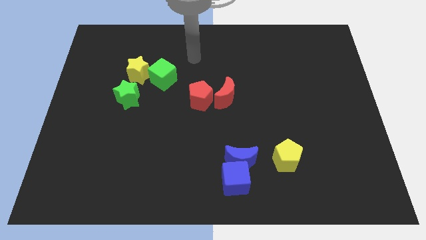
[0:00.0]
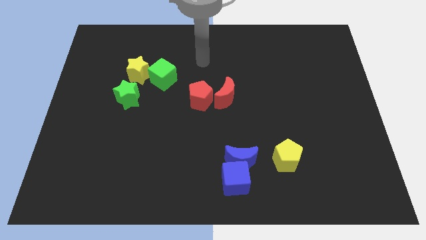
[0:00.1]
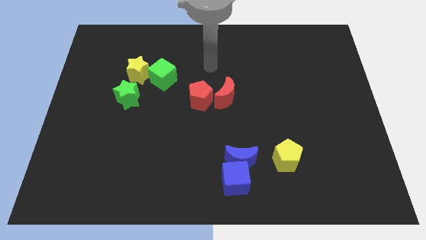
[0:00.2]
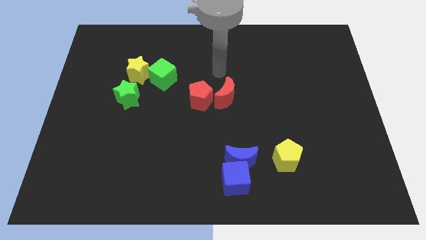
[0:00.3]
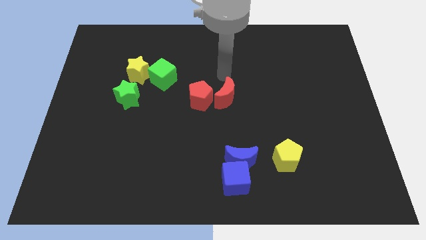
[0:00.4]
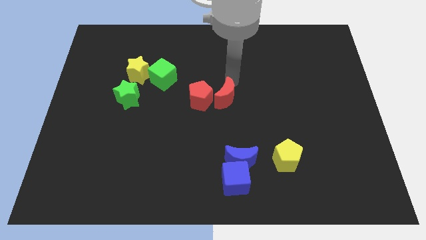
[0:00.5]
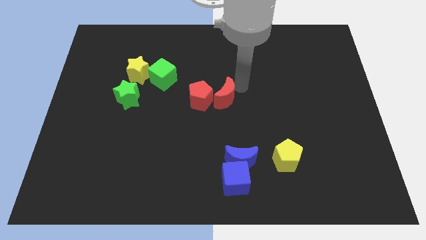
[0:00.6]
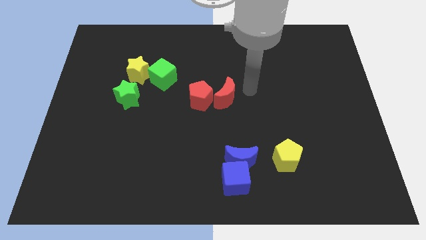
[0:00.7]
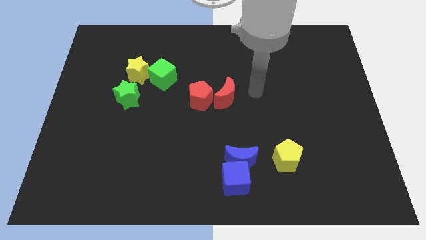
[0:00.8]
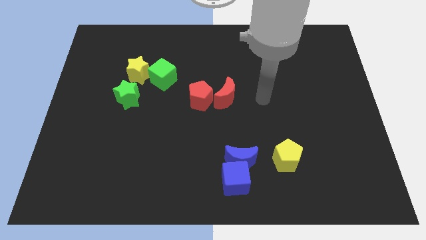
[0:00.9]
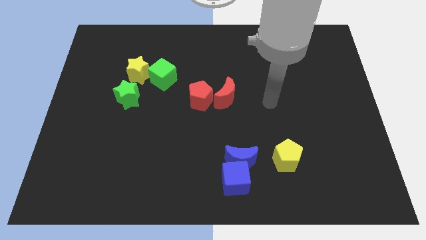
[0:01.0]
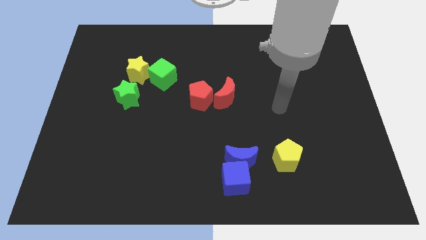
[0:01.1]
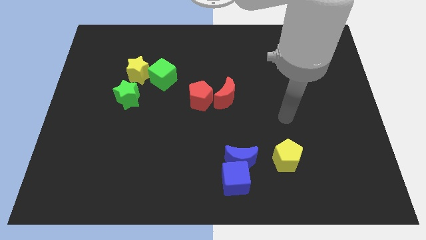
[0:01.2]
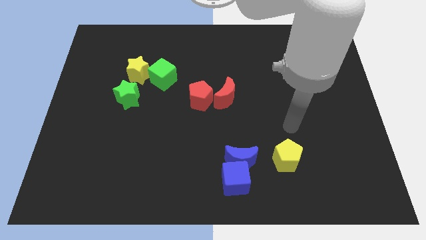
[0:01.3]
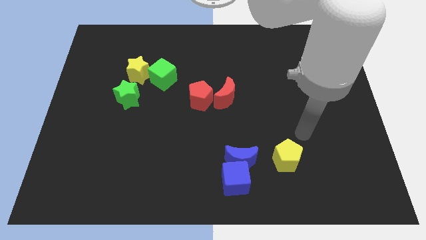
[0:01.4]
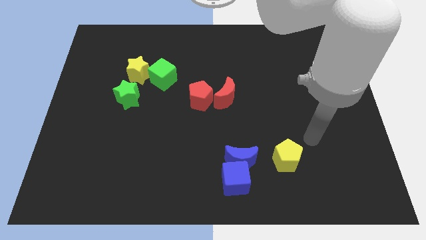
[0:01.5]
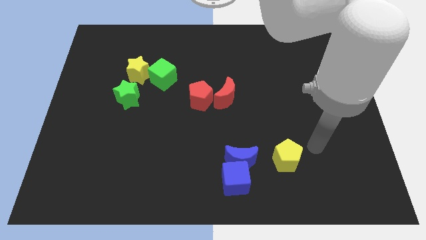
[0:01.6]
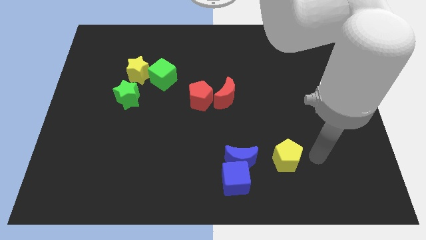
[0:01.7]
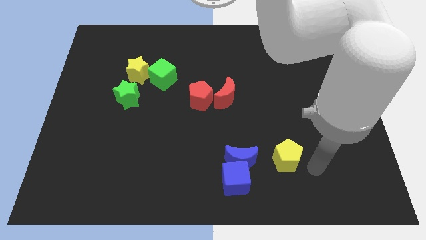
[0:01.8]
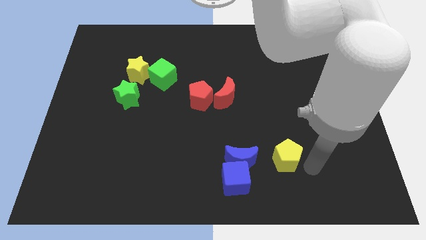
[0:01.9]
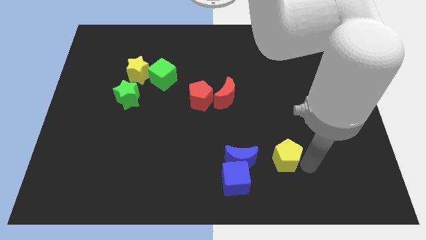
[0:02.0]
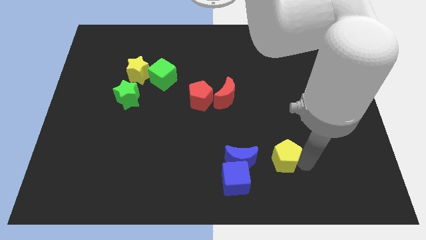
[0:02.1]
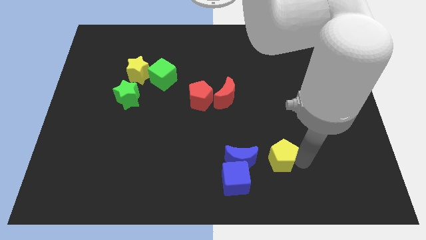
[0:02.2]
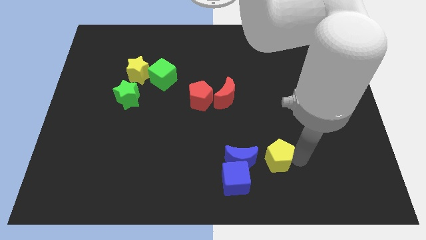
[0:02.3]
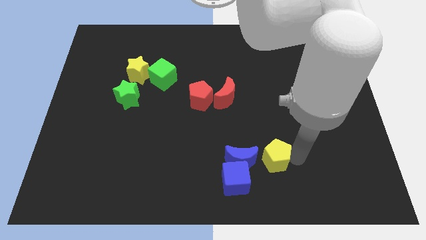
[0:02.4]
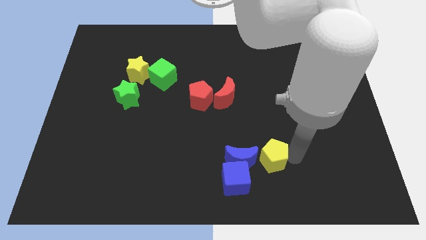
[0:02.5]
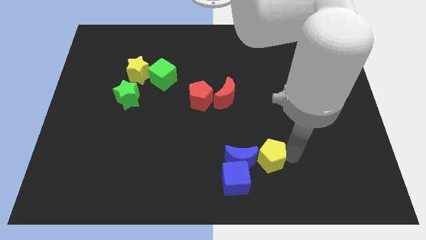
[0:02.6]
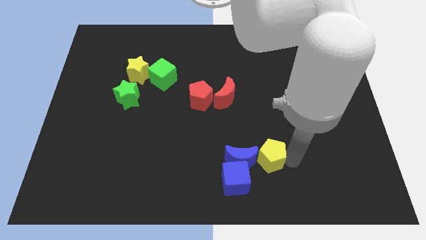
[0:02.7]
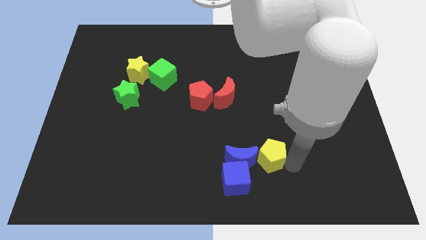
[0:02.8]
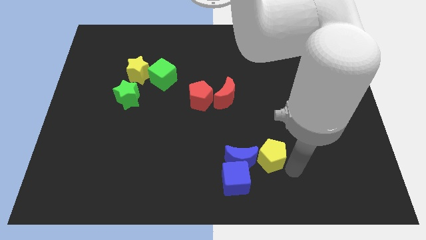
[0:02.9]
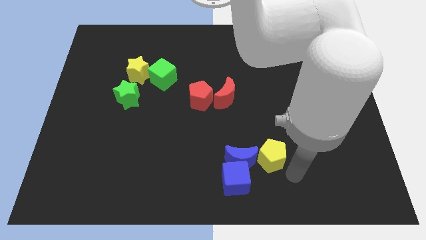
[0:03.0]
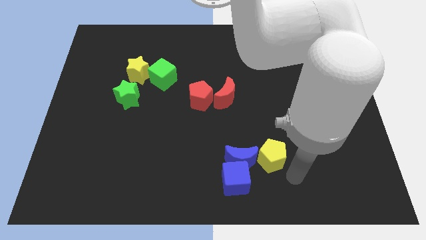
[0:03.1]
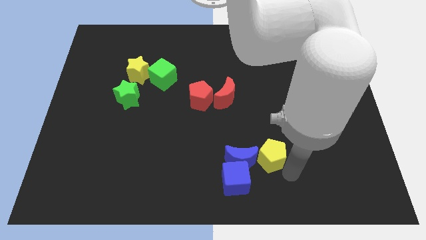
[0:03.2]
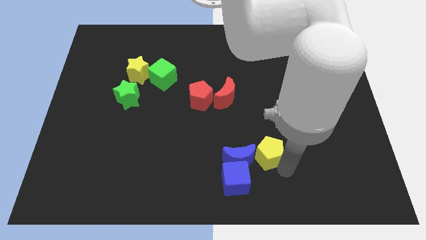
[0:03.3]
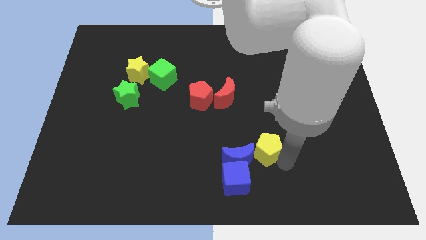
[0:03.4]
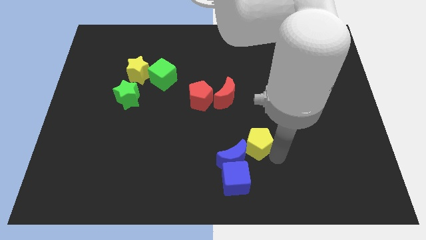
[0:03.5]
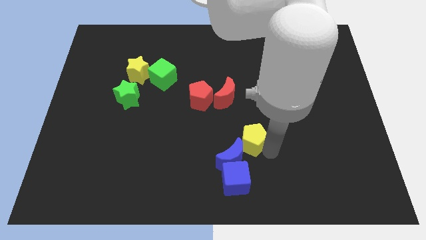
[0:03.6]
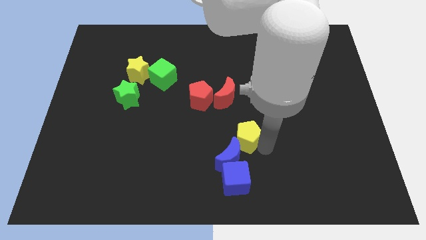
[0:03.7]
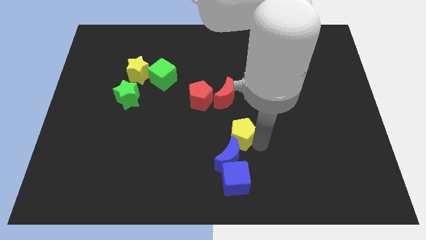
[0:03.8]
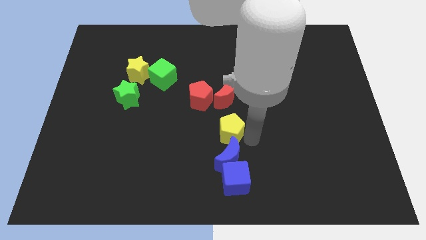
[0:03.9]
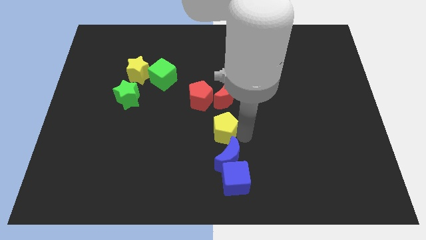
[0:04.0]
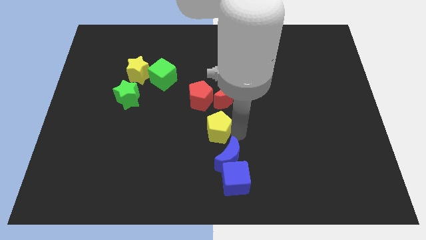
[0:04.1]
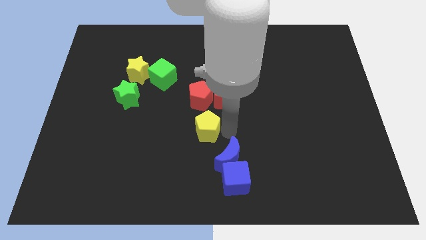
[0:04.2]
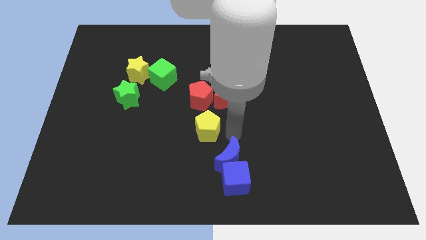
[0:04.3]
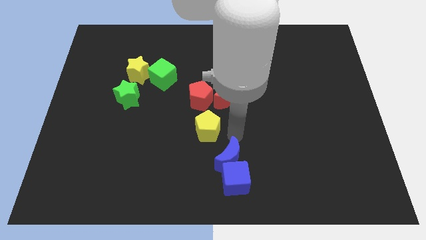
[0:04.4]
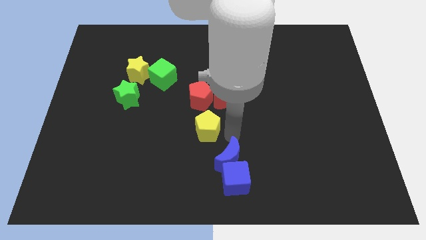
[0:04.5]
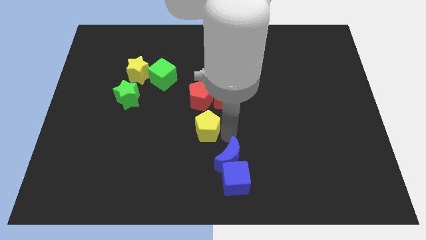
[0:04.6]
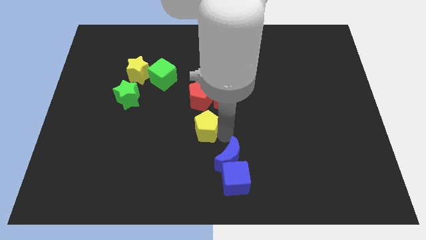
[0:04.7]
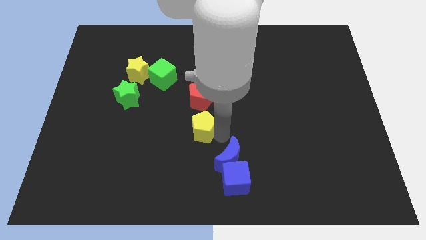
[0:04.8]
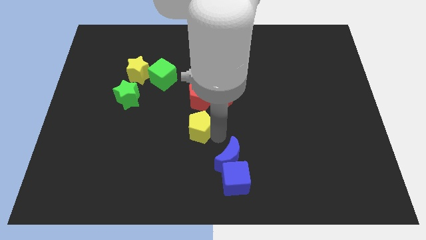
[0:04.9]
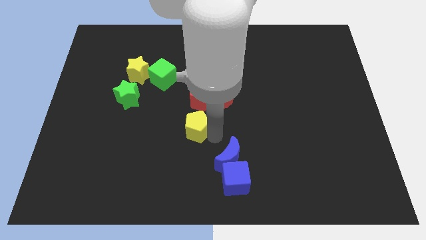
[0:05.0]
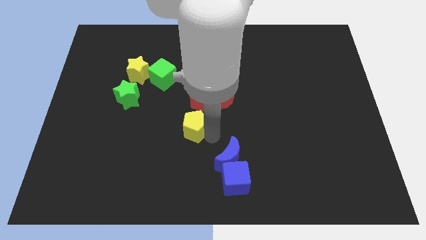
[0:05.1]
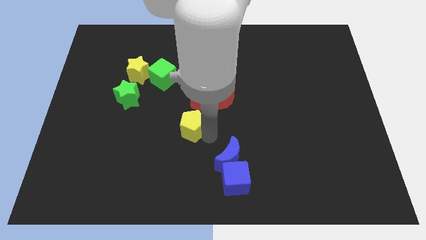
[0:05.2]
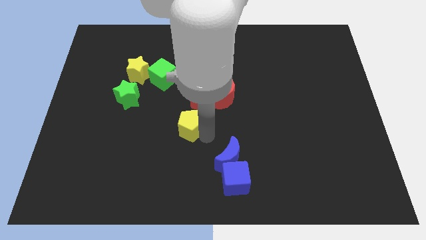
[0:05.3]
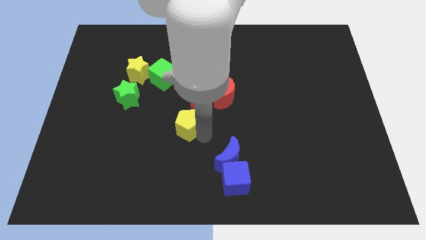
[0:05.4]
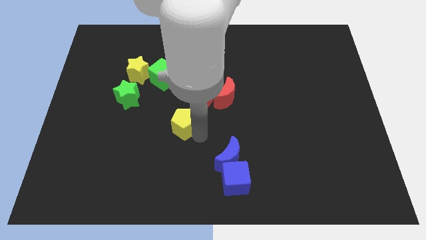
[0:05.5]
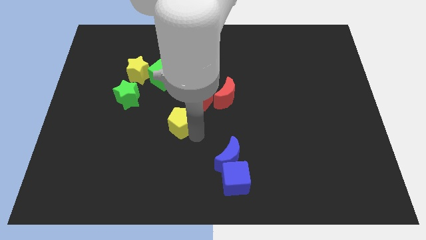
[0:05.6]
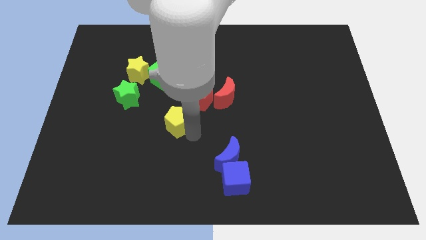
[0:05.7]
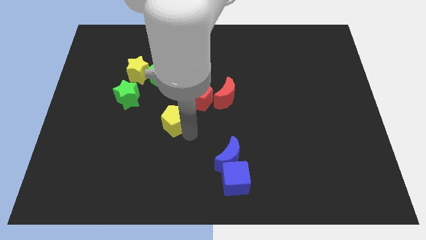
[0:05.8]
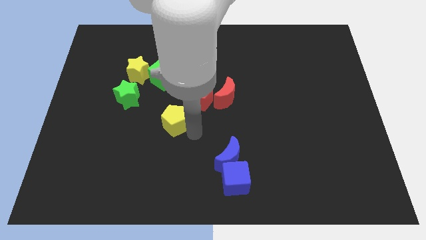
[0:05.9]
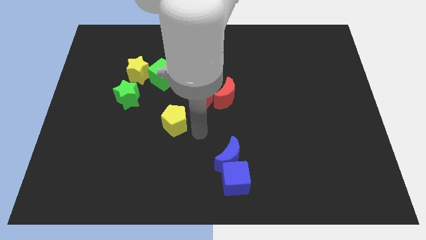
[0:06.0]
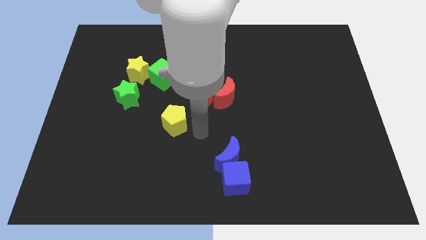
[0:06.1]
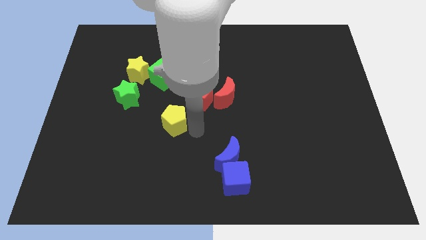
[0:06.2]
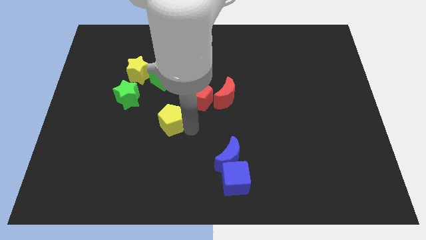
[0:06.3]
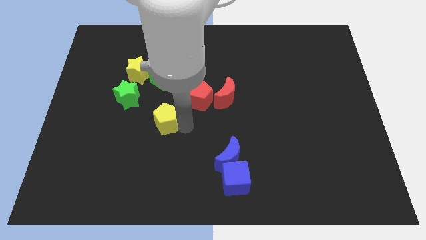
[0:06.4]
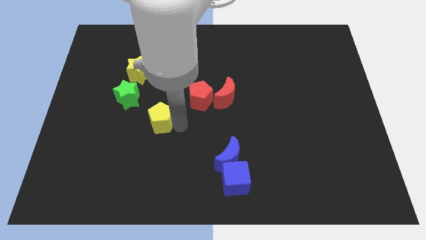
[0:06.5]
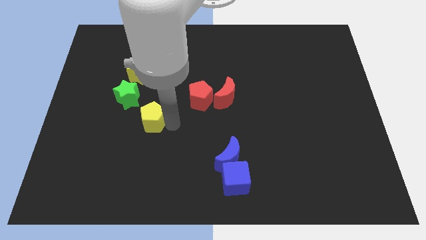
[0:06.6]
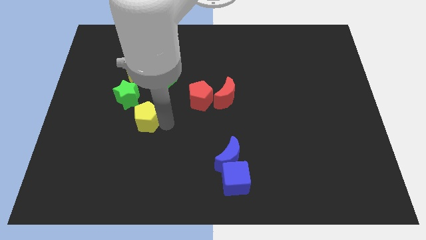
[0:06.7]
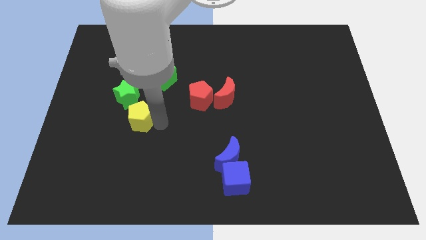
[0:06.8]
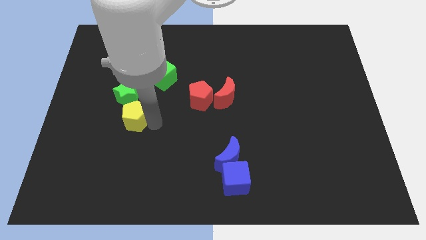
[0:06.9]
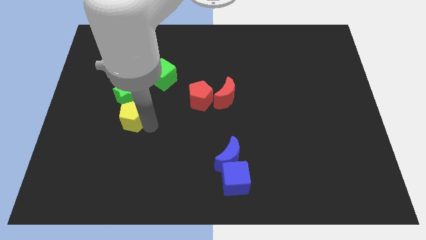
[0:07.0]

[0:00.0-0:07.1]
move the yellow pentagon to the green star
